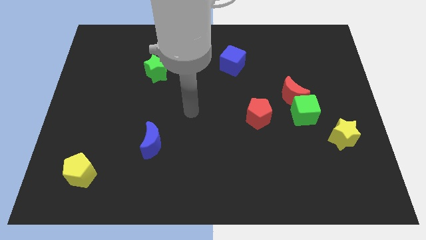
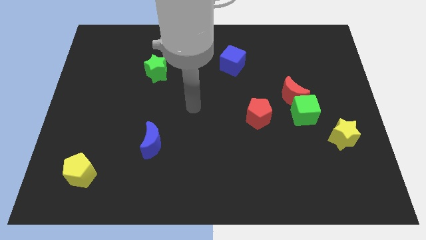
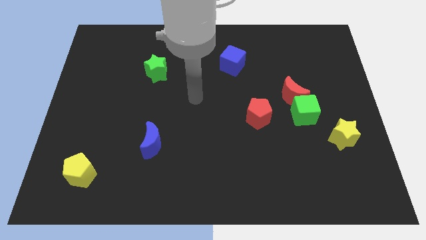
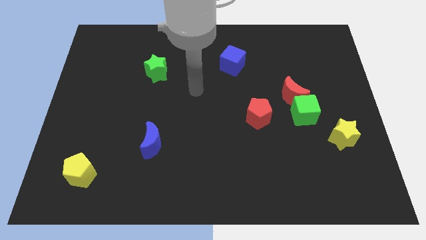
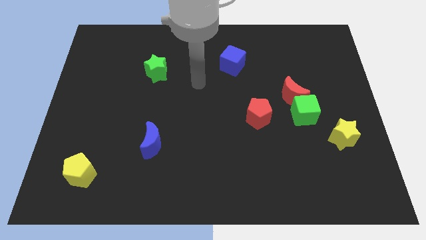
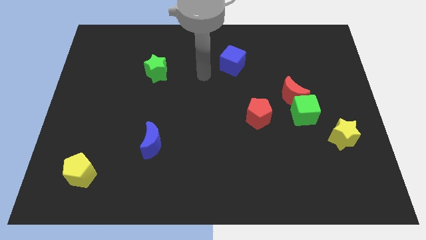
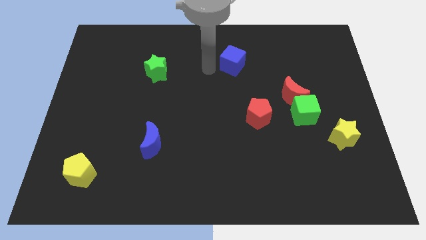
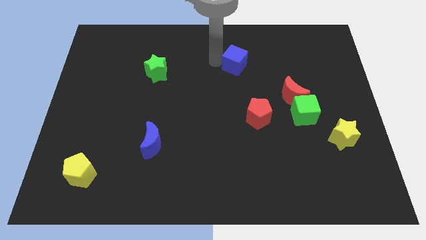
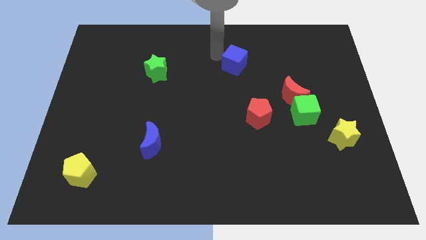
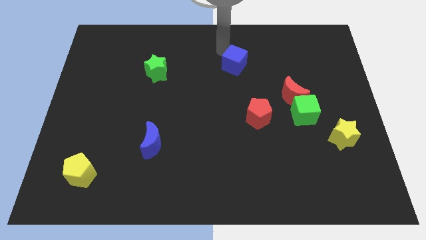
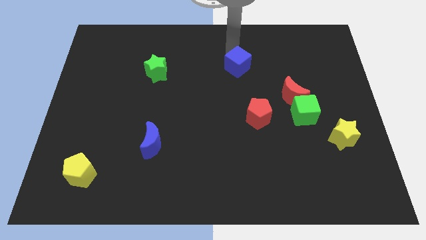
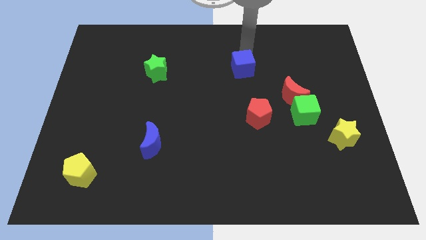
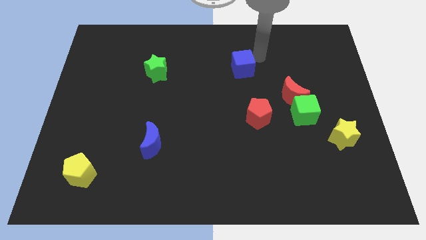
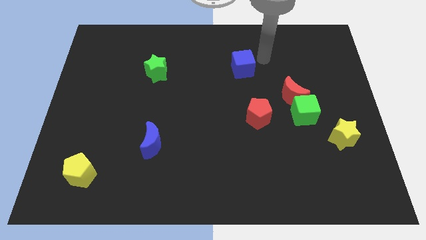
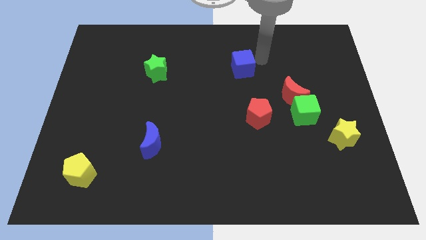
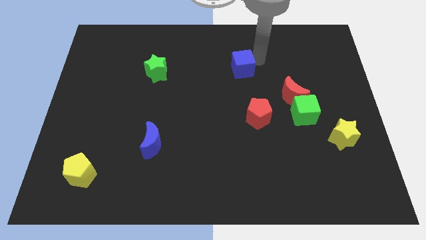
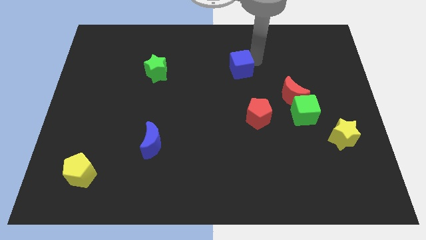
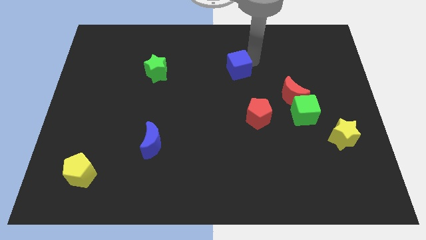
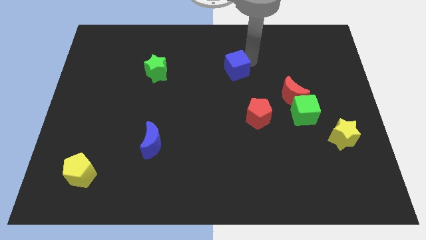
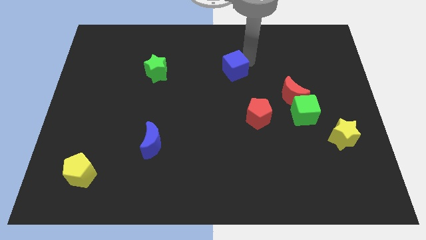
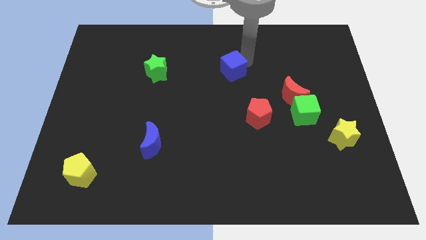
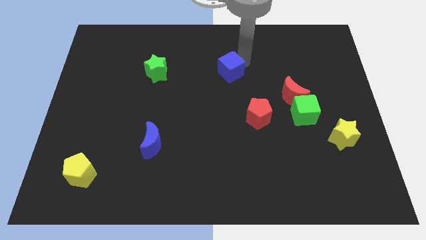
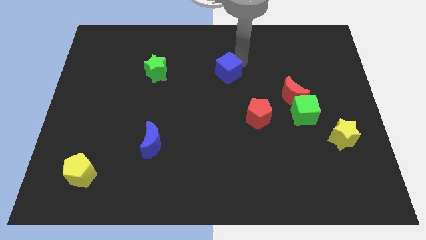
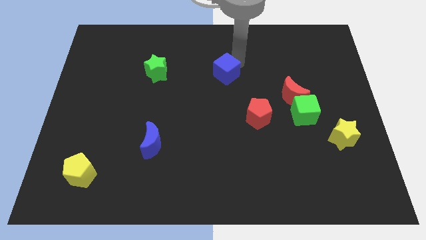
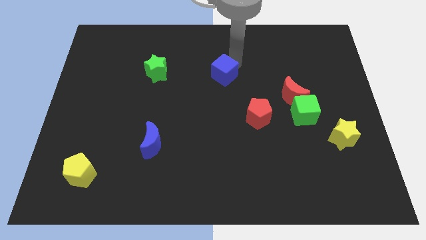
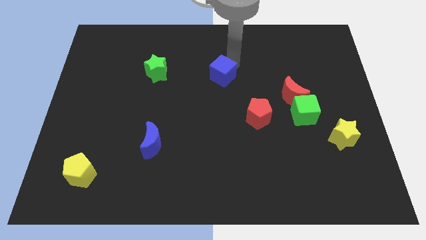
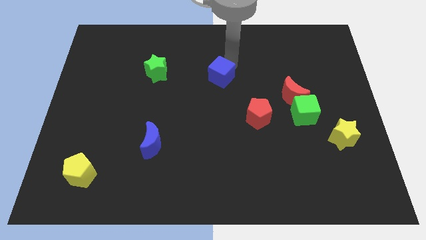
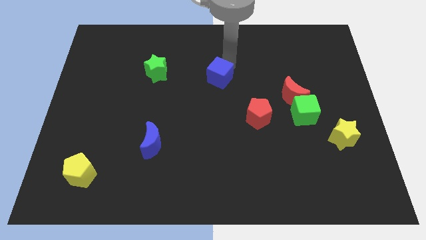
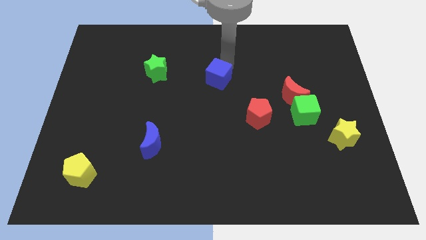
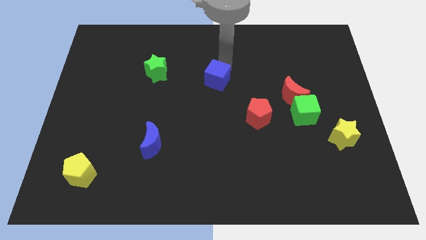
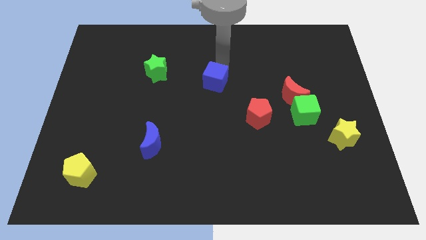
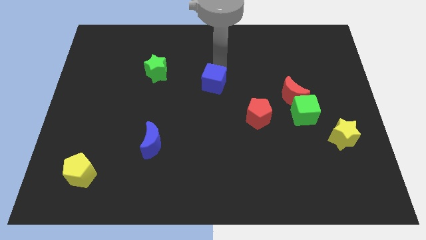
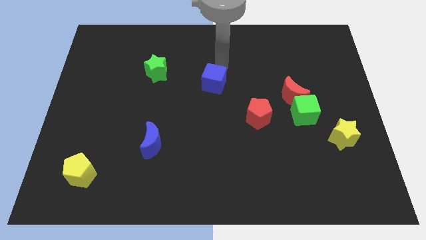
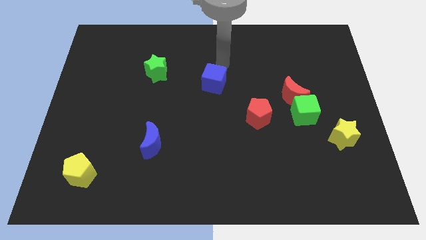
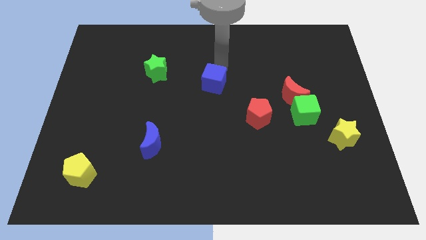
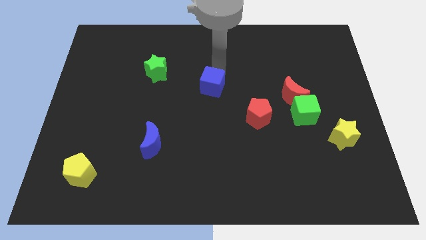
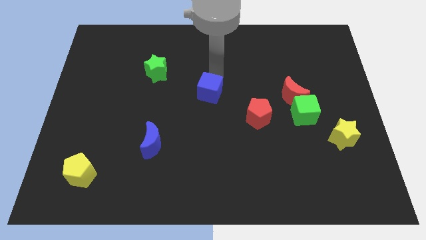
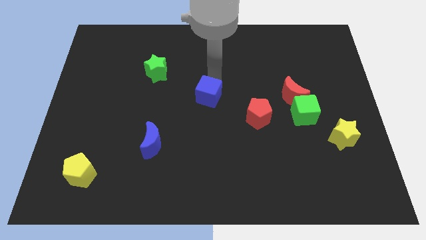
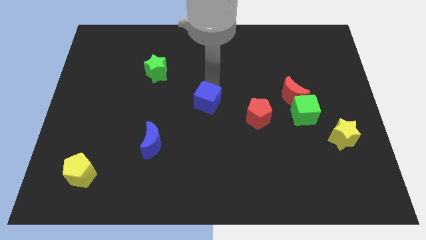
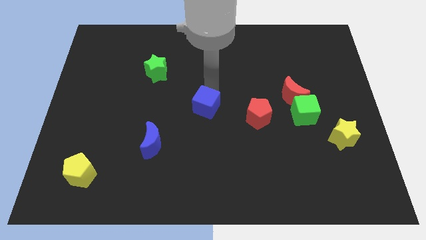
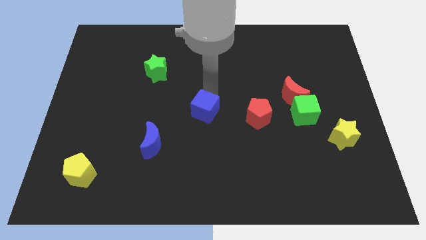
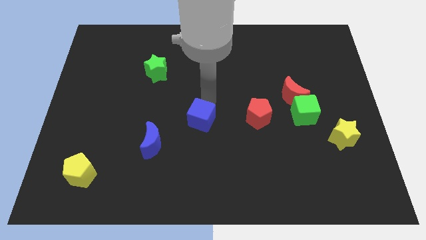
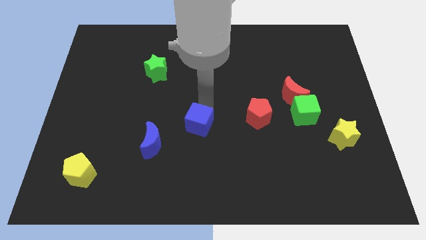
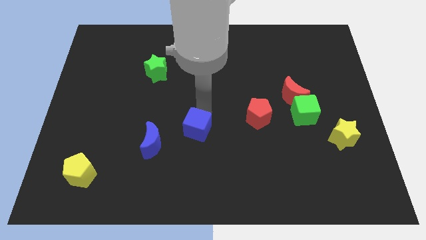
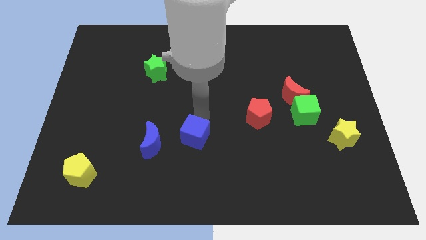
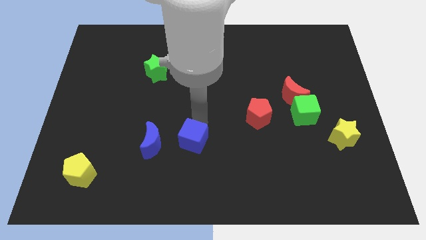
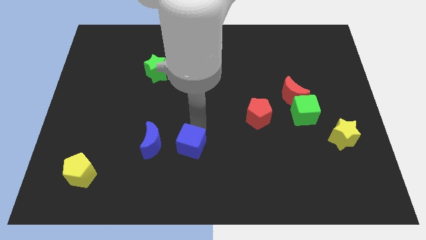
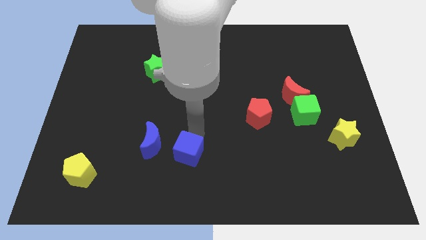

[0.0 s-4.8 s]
slide the blue cube diagonally down and to the right of the blue moon

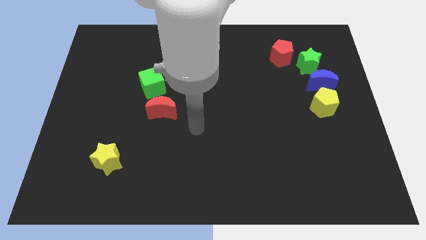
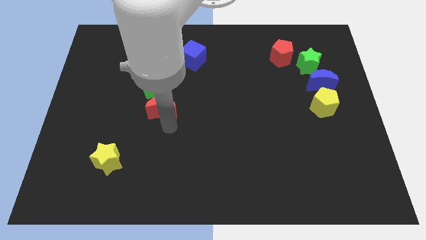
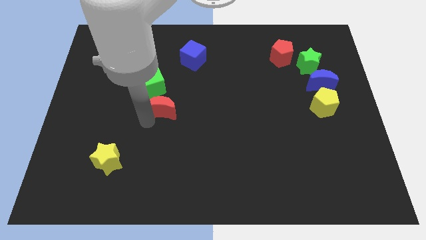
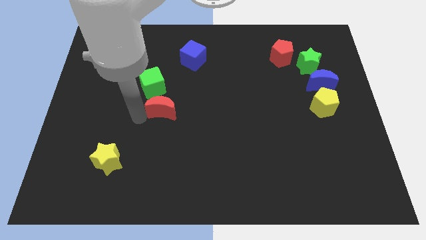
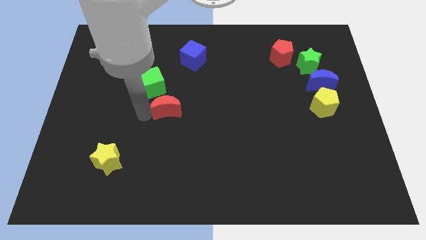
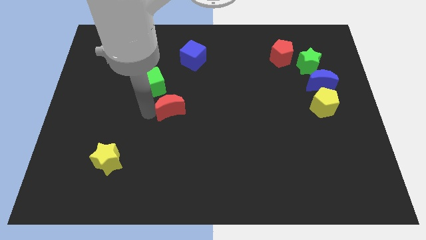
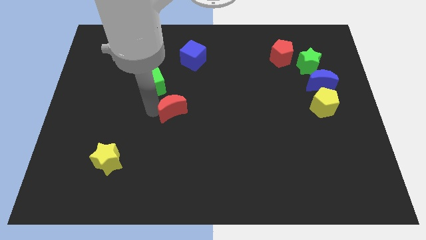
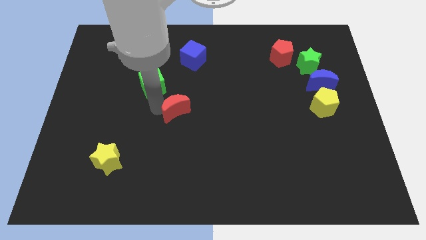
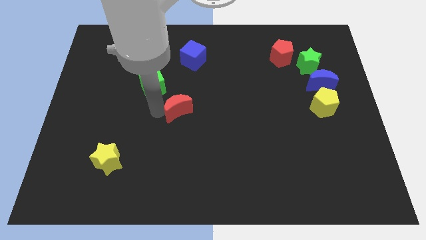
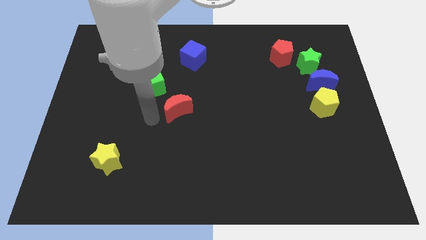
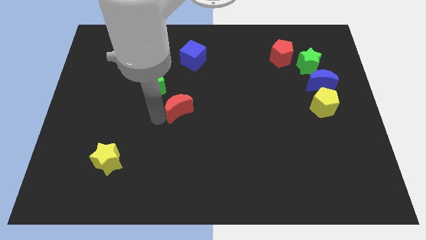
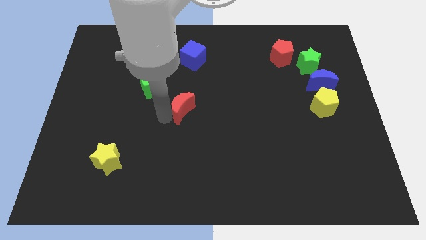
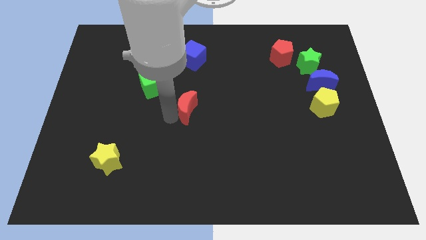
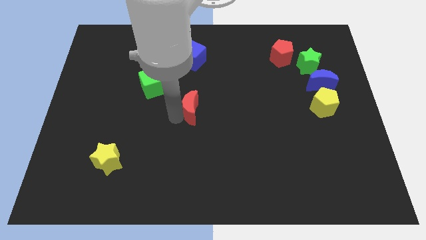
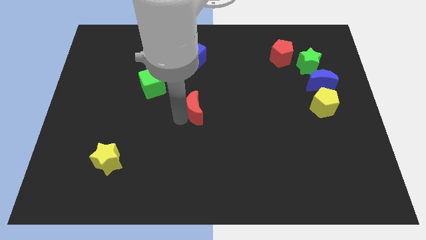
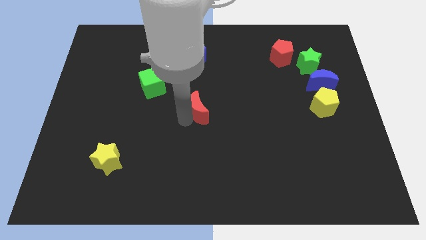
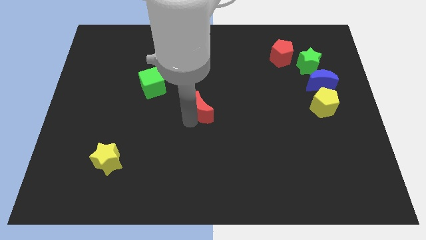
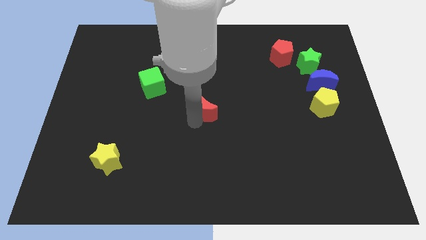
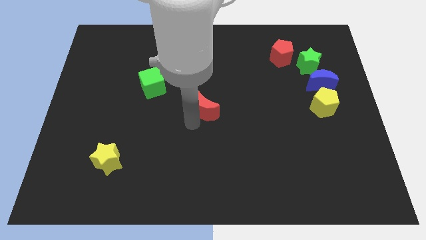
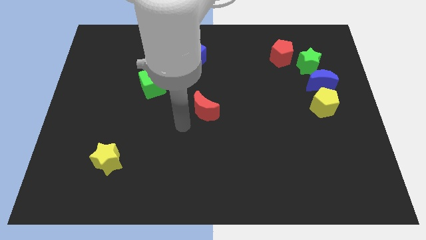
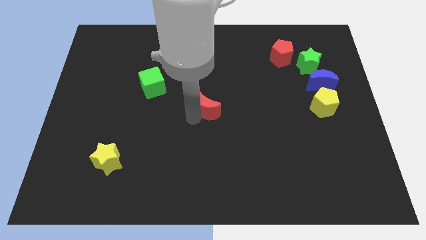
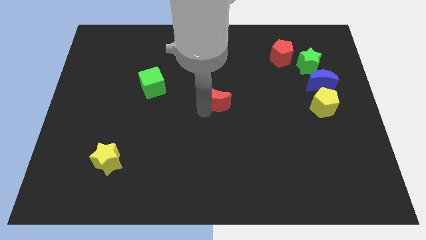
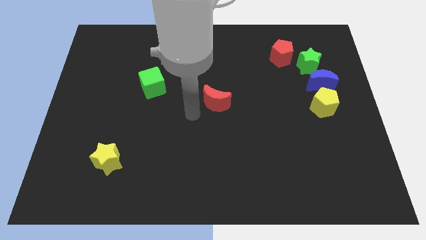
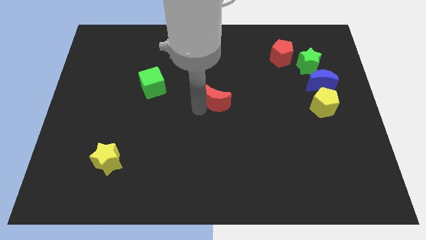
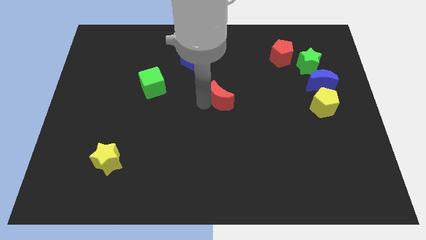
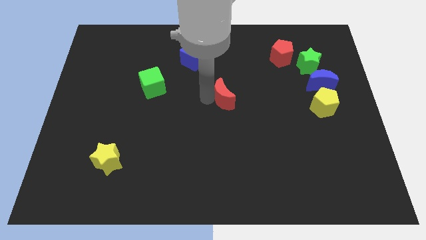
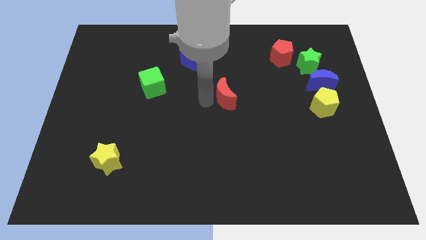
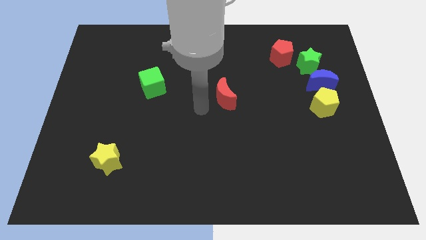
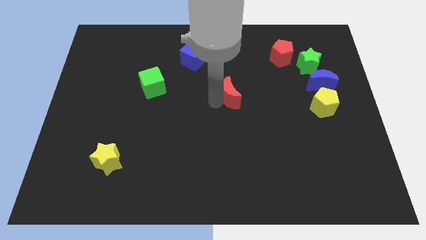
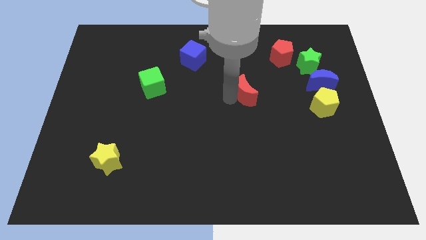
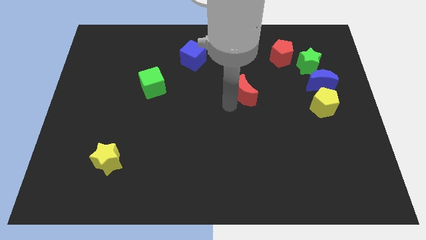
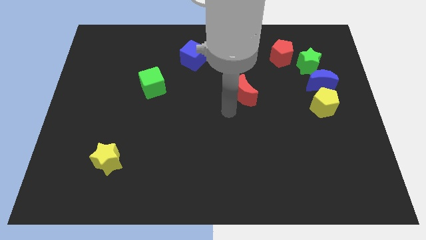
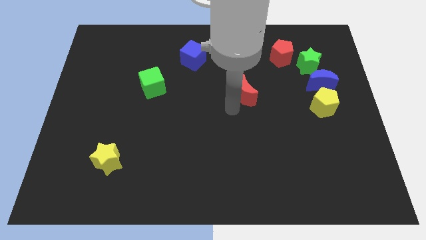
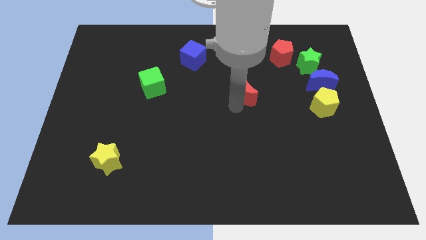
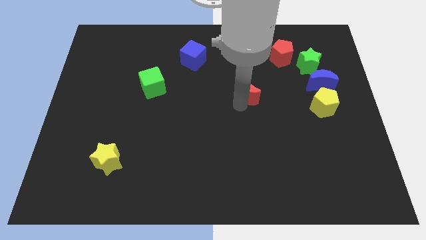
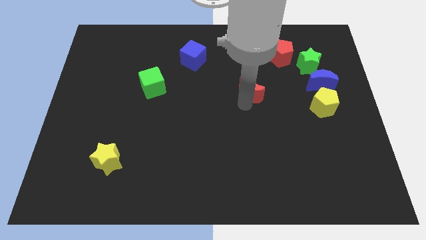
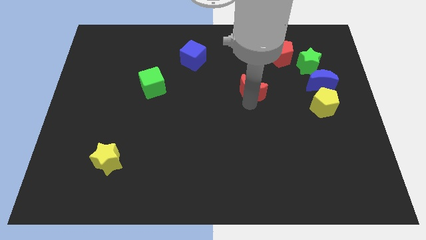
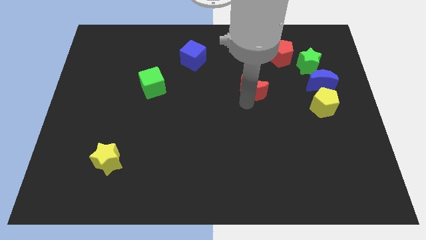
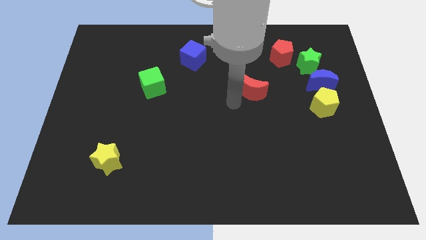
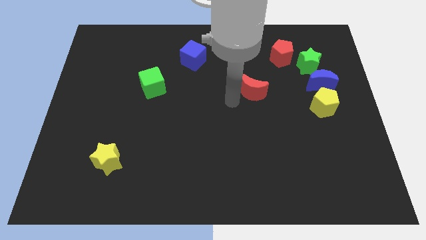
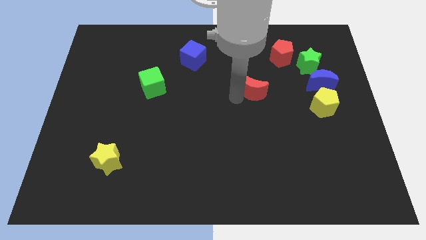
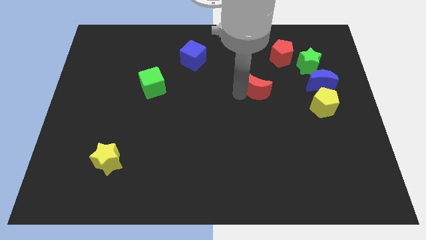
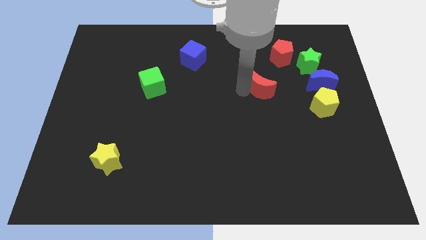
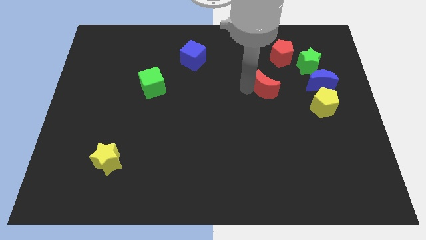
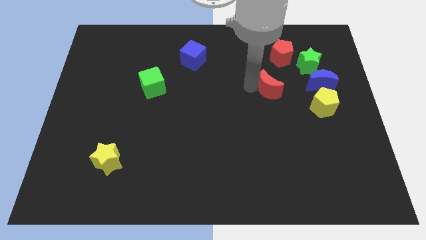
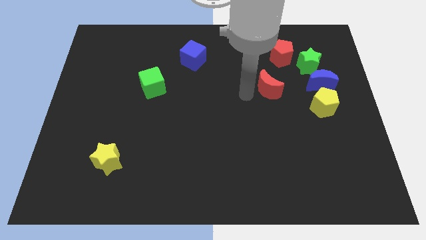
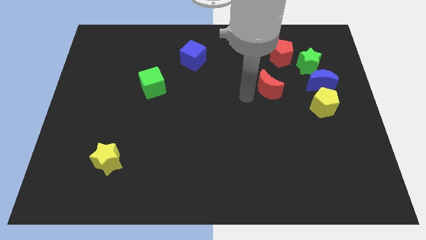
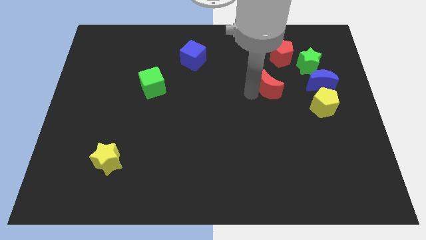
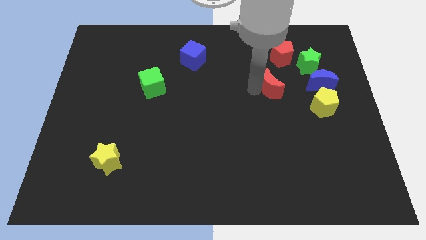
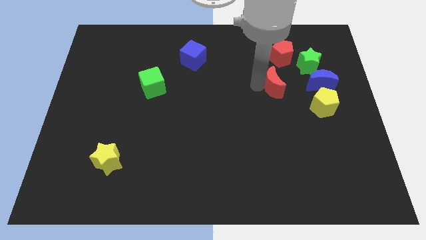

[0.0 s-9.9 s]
put the red moon to the bottom left of the green star
